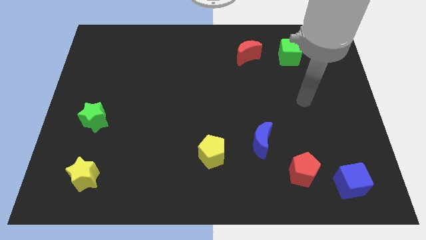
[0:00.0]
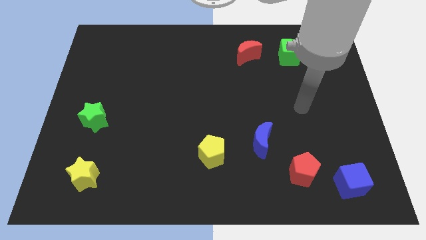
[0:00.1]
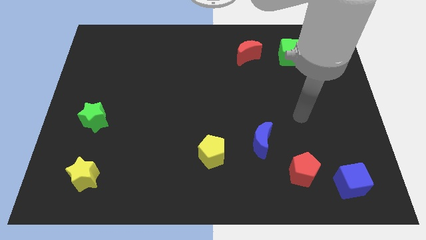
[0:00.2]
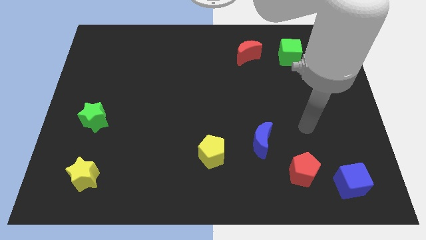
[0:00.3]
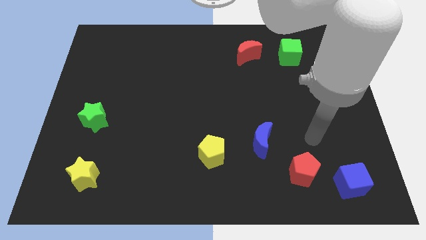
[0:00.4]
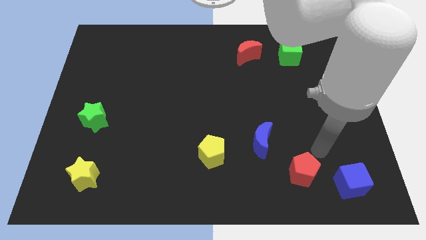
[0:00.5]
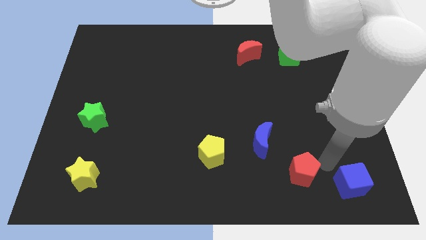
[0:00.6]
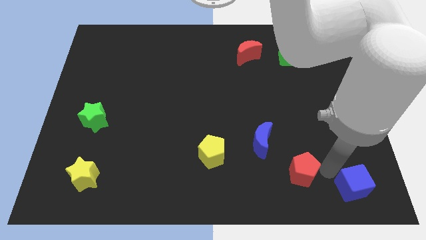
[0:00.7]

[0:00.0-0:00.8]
separate the red pentagon from the blue cube

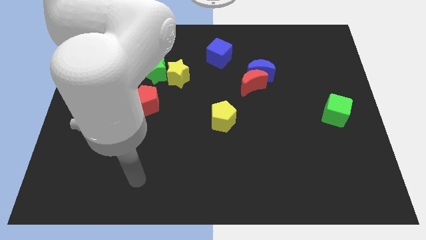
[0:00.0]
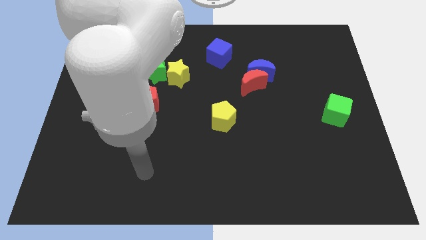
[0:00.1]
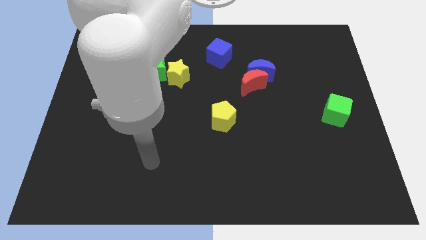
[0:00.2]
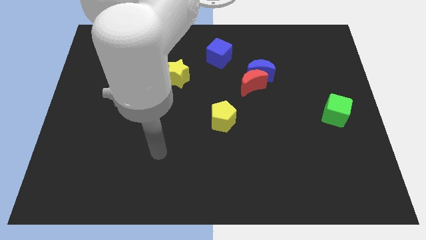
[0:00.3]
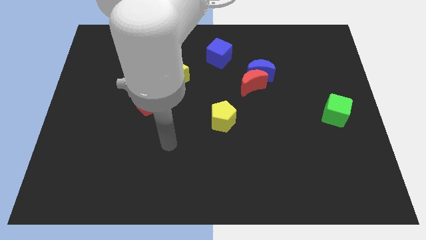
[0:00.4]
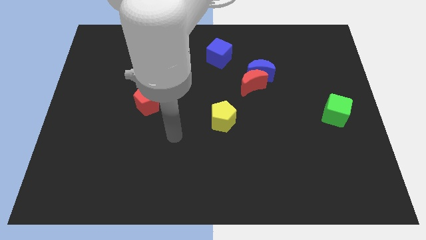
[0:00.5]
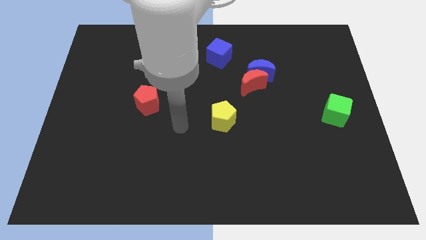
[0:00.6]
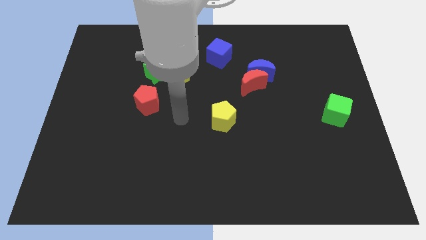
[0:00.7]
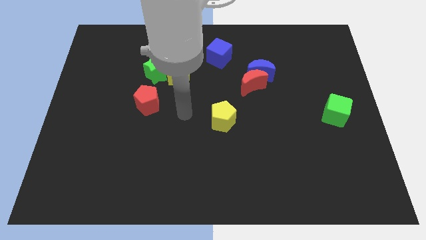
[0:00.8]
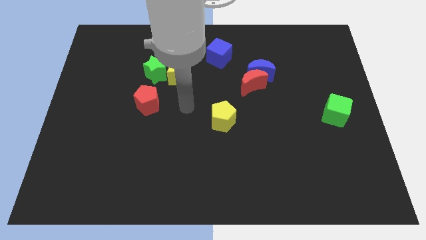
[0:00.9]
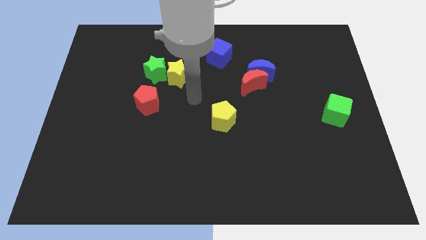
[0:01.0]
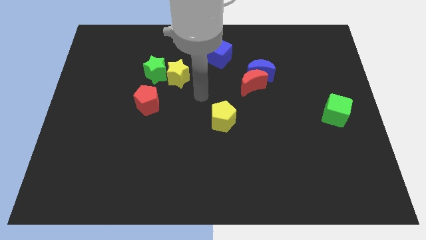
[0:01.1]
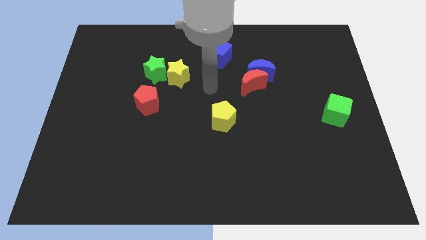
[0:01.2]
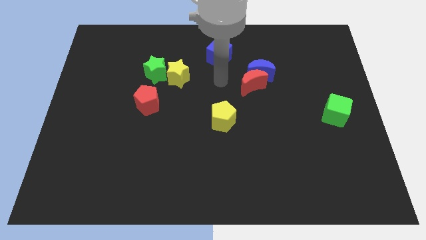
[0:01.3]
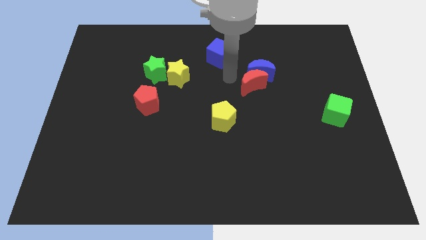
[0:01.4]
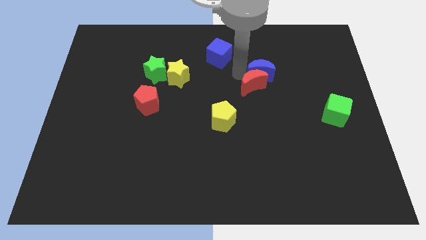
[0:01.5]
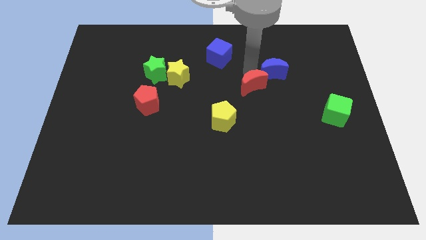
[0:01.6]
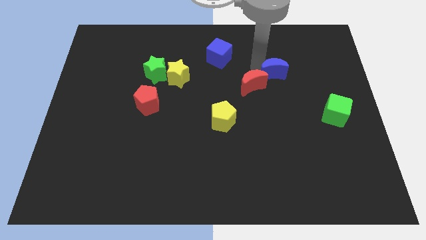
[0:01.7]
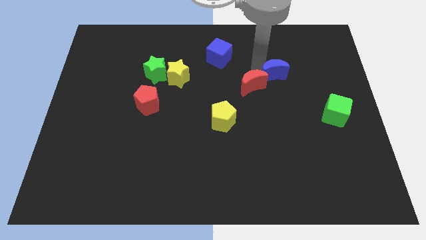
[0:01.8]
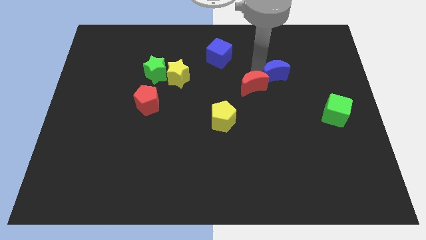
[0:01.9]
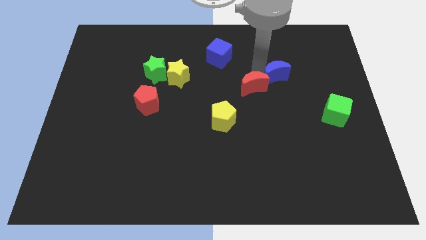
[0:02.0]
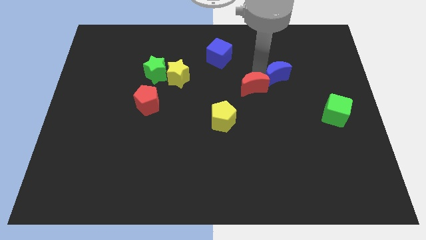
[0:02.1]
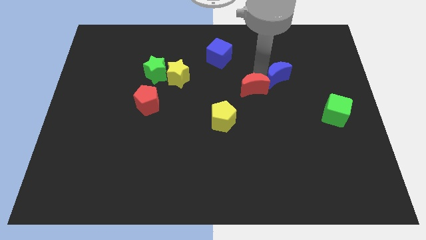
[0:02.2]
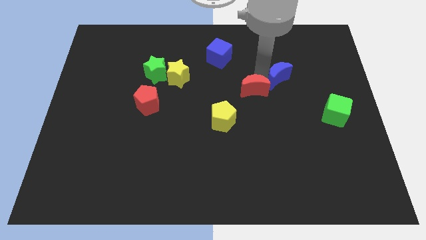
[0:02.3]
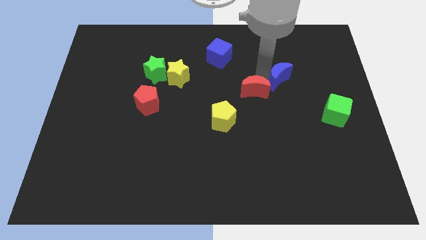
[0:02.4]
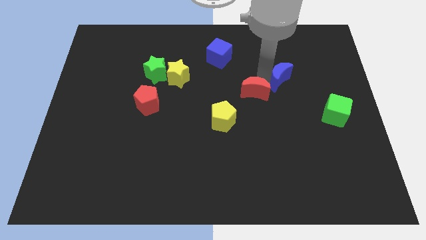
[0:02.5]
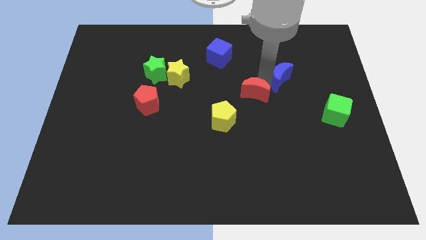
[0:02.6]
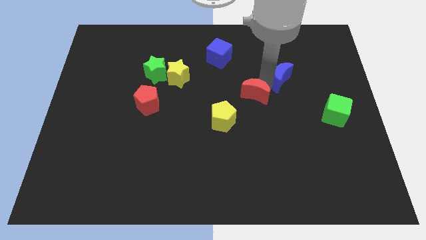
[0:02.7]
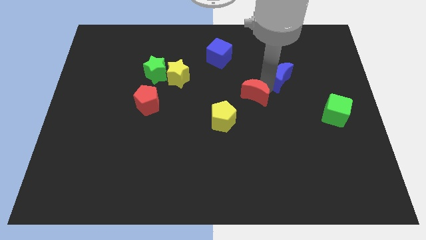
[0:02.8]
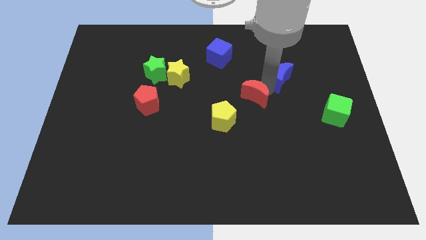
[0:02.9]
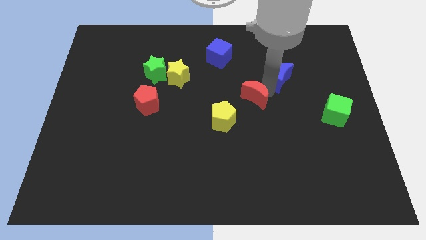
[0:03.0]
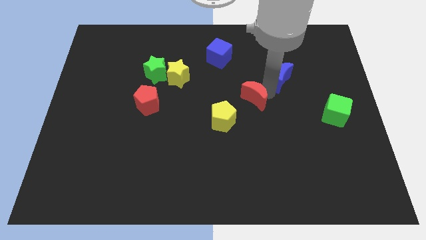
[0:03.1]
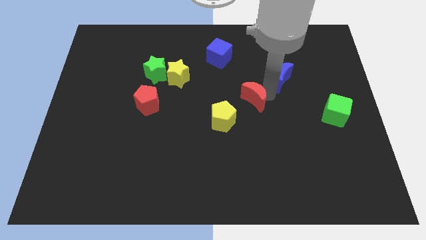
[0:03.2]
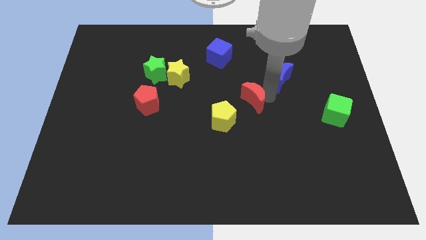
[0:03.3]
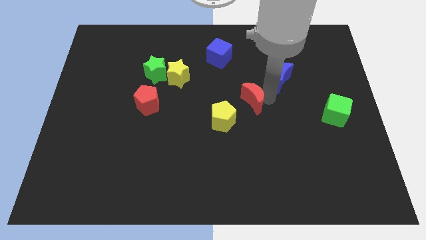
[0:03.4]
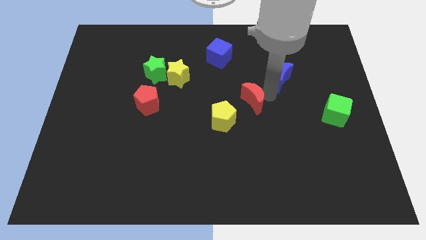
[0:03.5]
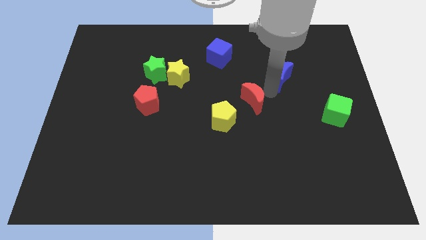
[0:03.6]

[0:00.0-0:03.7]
separate the red moon from the blue moon

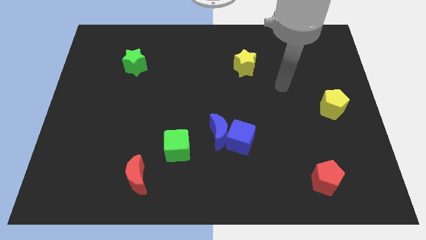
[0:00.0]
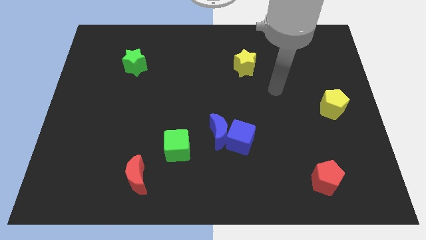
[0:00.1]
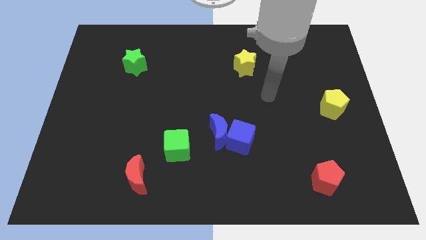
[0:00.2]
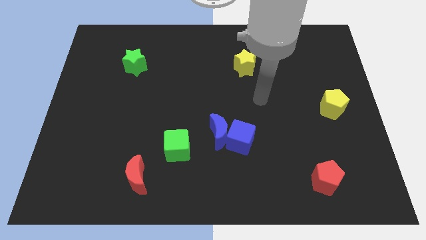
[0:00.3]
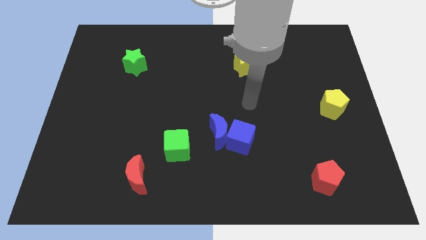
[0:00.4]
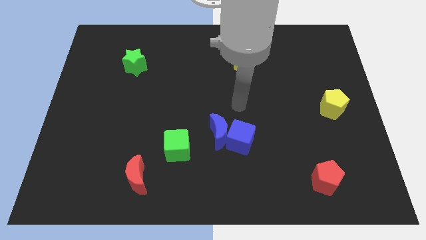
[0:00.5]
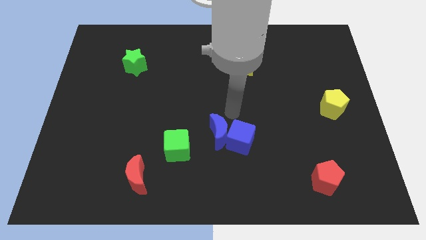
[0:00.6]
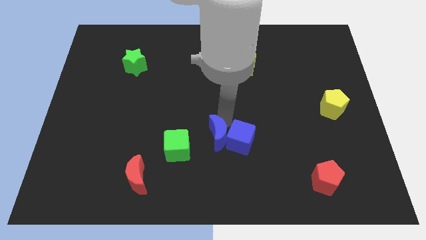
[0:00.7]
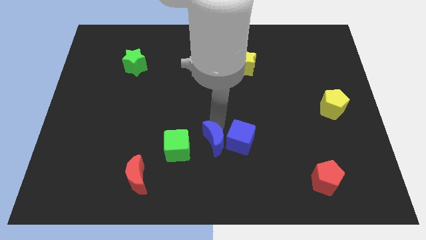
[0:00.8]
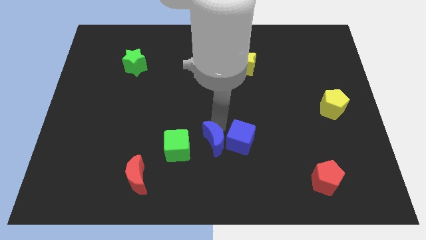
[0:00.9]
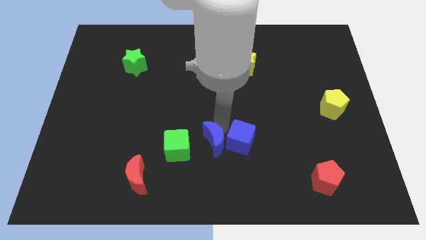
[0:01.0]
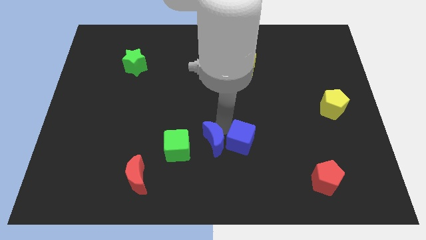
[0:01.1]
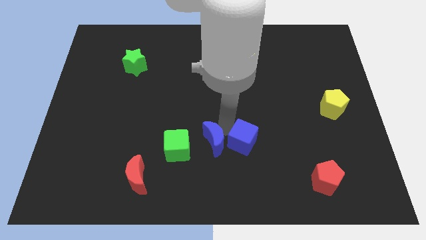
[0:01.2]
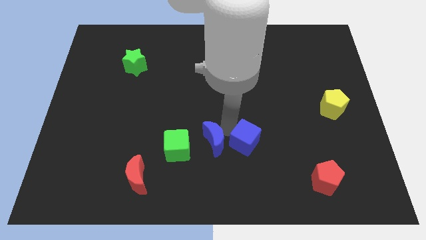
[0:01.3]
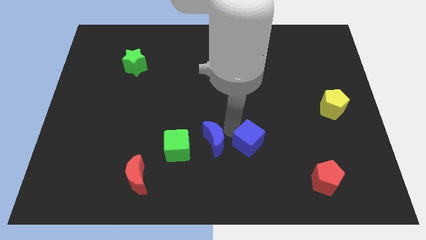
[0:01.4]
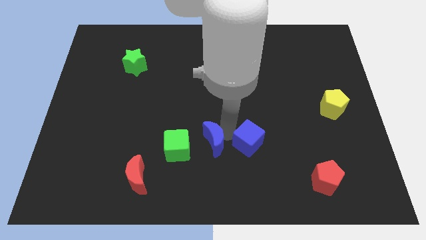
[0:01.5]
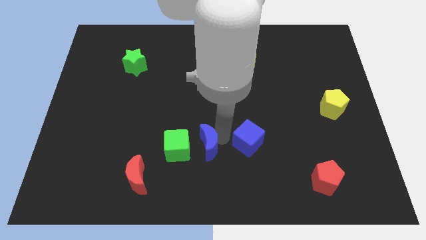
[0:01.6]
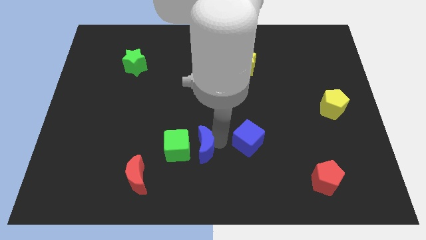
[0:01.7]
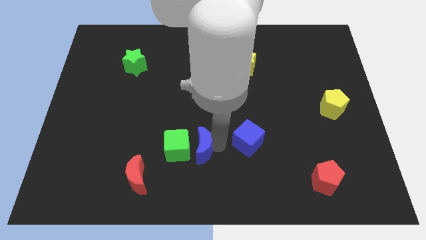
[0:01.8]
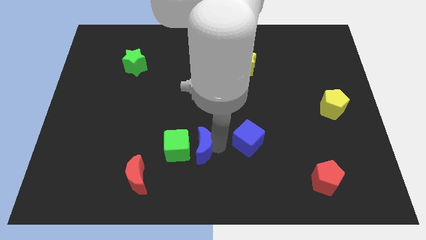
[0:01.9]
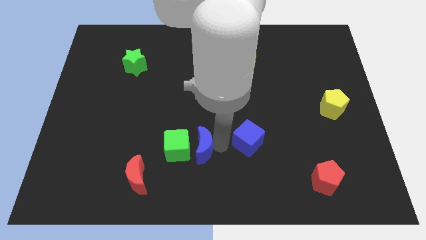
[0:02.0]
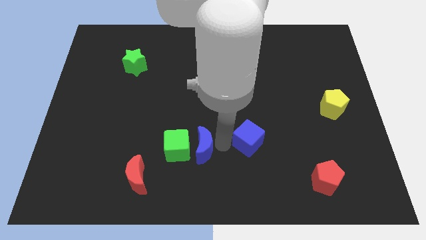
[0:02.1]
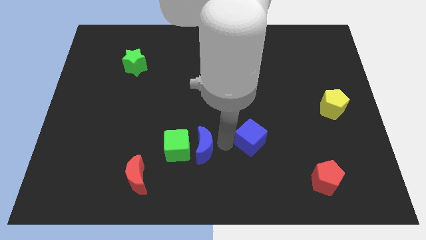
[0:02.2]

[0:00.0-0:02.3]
pull the blue cube apart from the blue moon

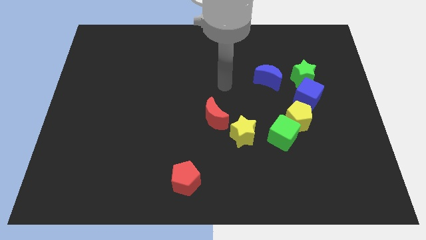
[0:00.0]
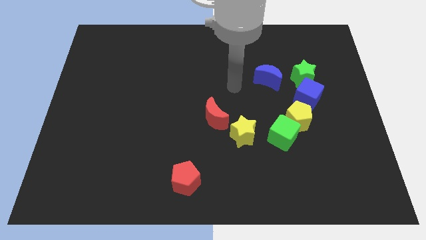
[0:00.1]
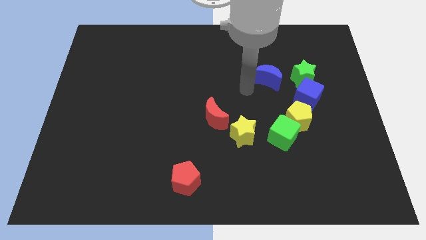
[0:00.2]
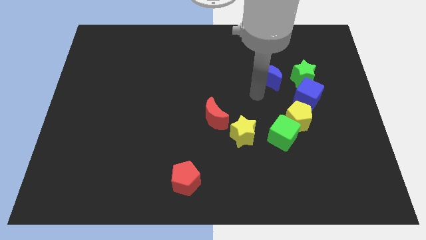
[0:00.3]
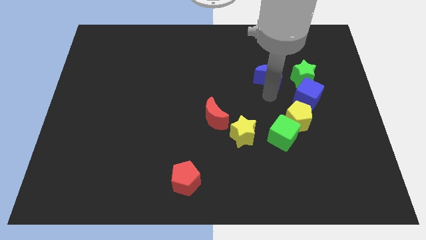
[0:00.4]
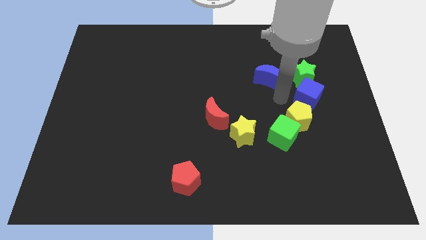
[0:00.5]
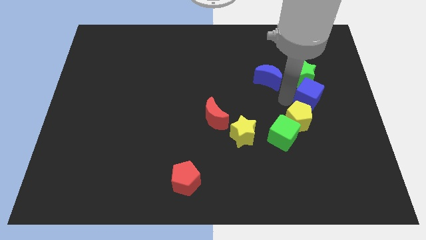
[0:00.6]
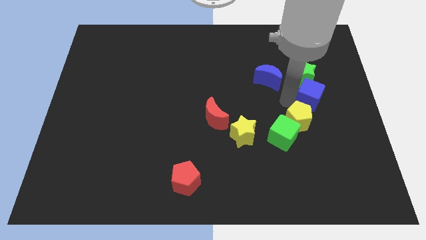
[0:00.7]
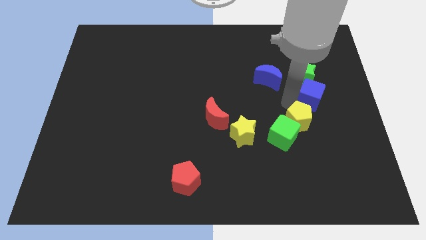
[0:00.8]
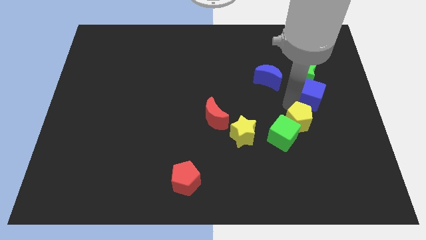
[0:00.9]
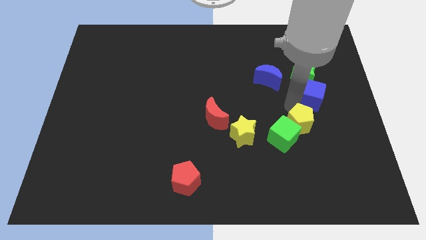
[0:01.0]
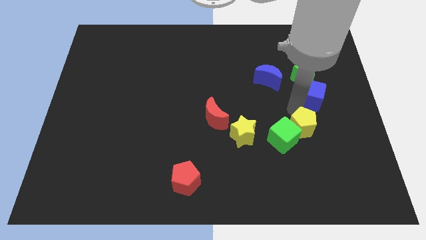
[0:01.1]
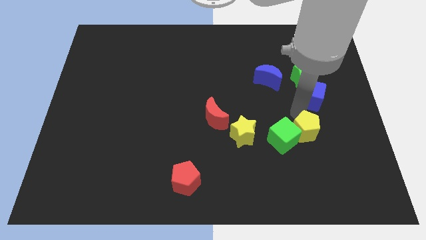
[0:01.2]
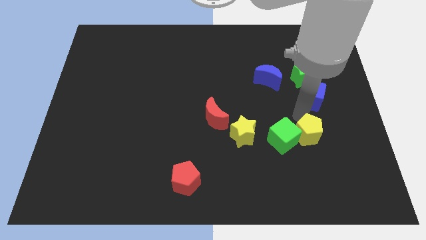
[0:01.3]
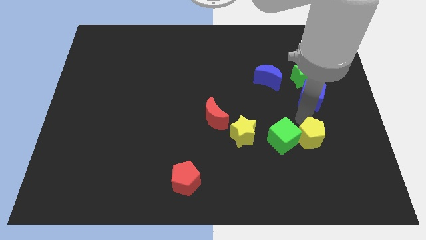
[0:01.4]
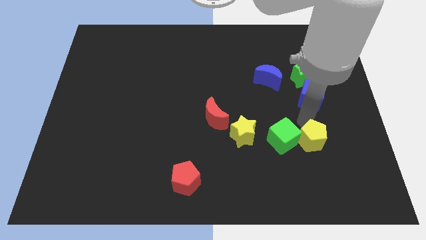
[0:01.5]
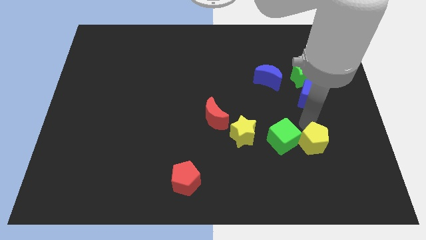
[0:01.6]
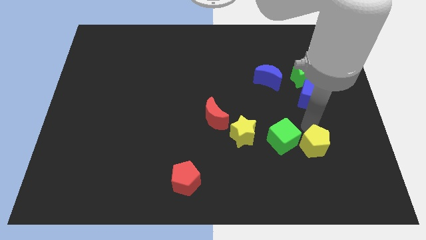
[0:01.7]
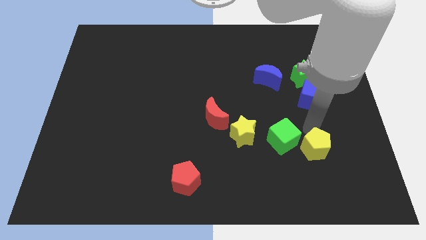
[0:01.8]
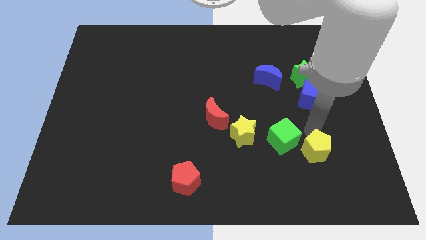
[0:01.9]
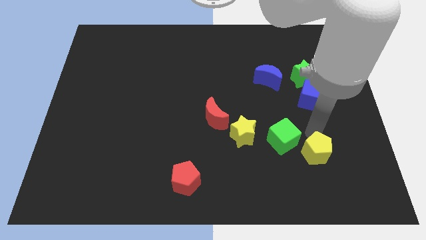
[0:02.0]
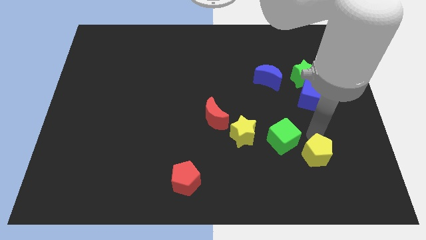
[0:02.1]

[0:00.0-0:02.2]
separate the yellow pentagon from the green cube and blue cube

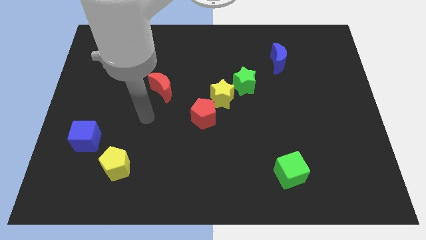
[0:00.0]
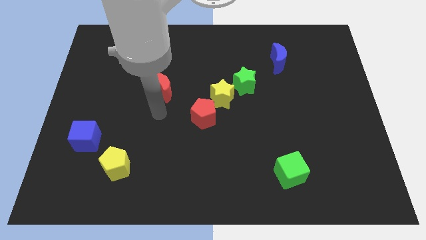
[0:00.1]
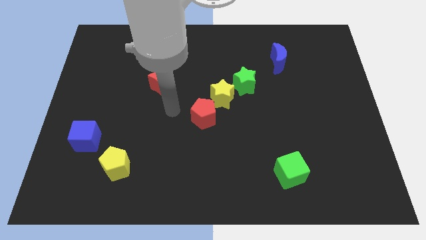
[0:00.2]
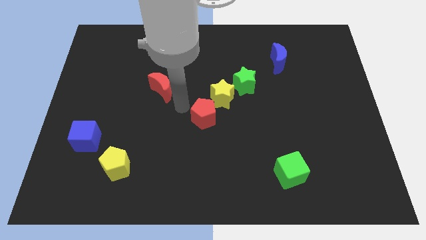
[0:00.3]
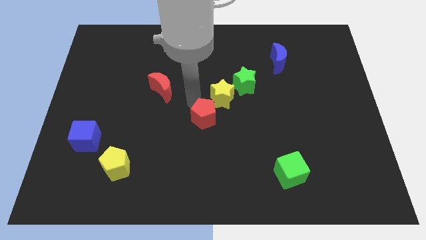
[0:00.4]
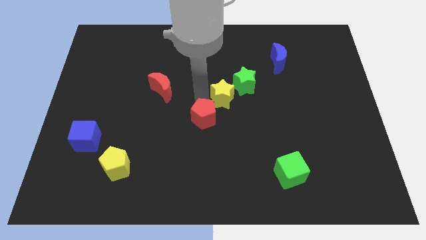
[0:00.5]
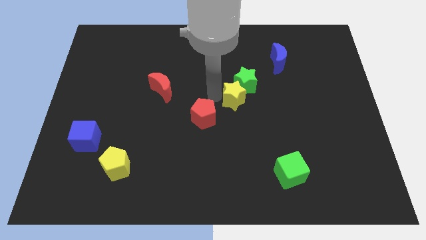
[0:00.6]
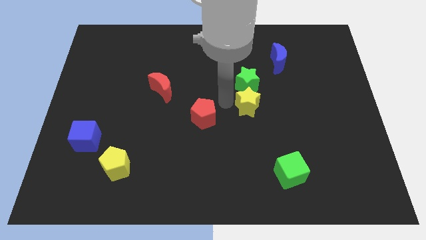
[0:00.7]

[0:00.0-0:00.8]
pull the red pentagon apart from the yellow star
